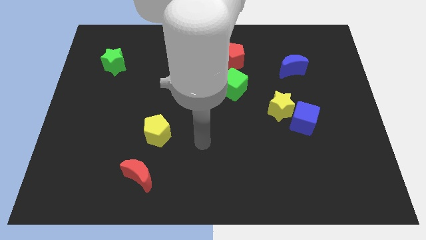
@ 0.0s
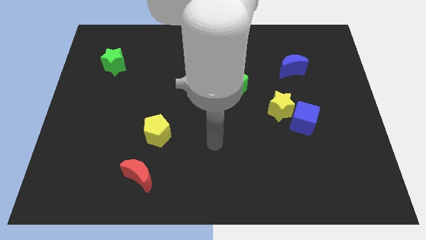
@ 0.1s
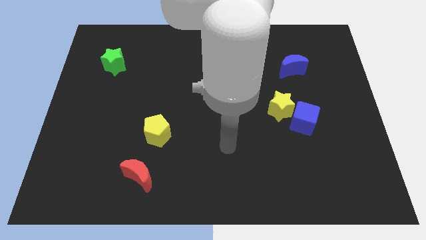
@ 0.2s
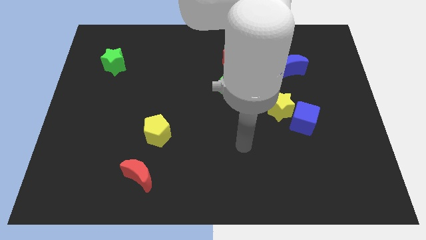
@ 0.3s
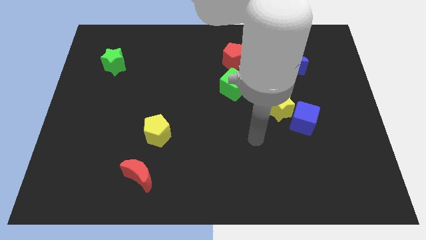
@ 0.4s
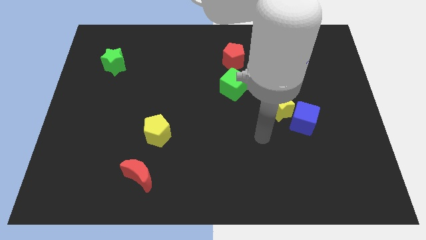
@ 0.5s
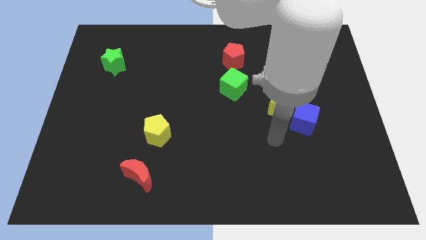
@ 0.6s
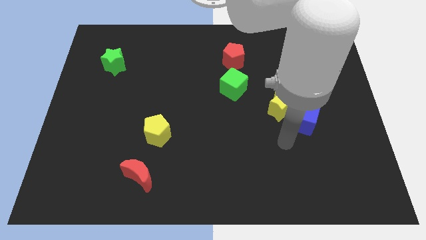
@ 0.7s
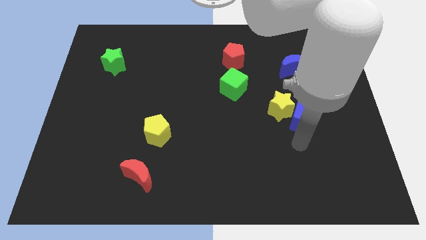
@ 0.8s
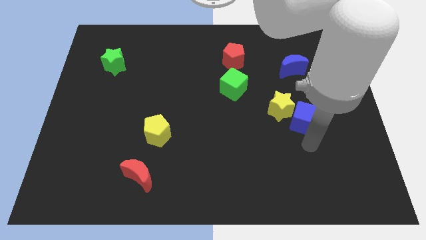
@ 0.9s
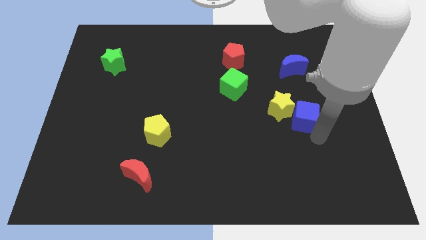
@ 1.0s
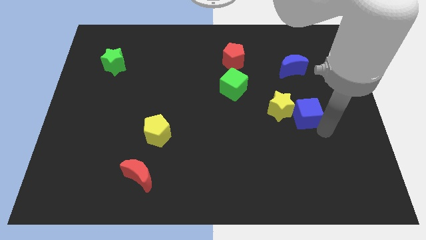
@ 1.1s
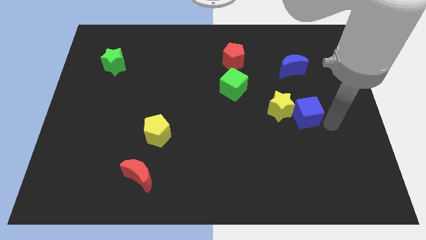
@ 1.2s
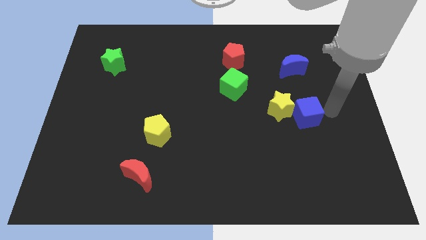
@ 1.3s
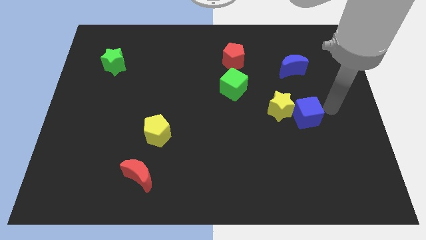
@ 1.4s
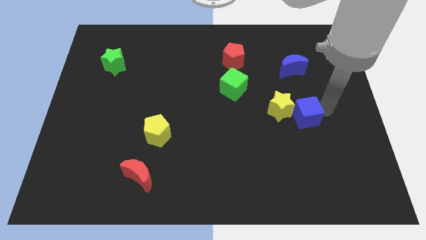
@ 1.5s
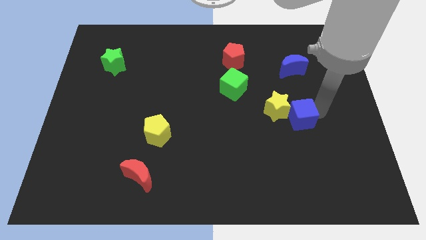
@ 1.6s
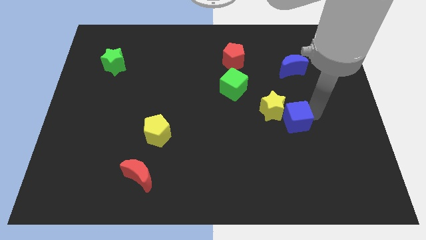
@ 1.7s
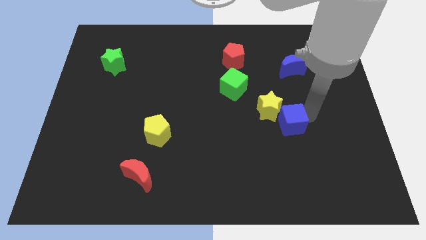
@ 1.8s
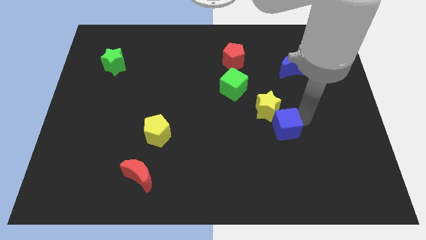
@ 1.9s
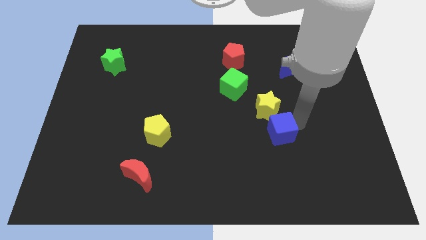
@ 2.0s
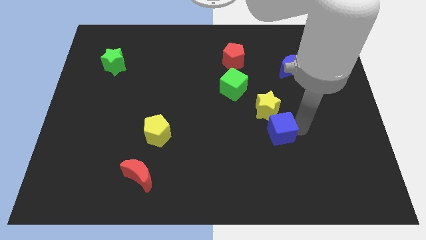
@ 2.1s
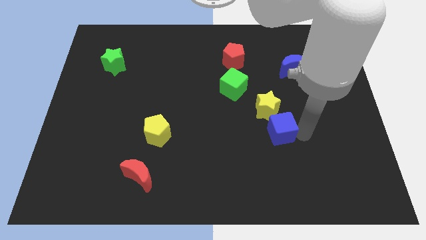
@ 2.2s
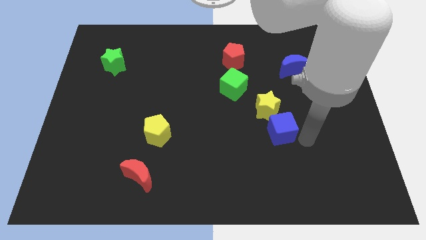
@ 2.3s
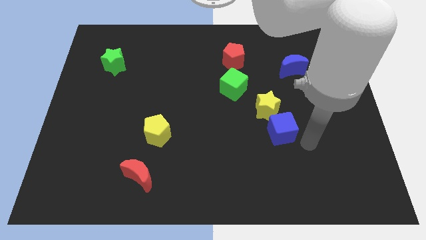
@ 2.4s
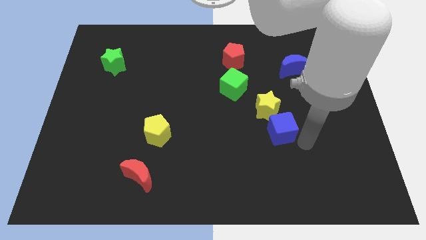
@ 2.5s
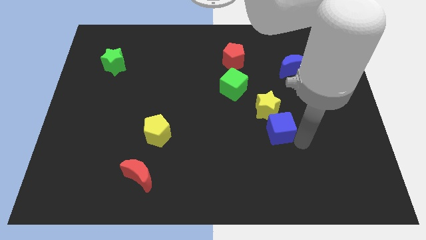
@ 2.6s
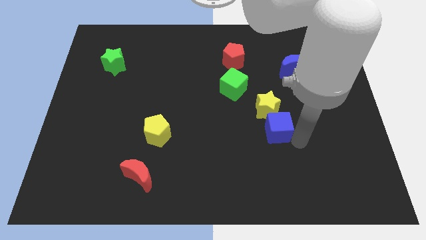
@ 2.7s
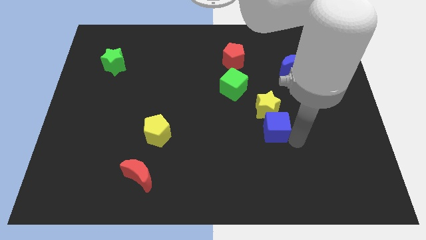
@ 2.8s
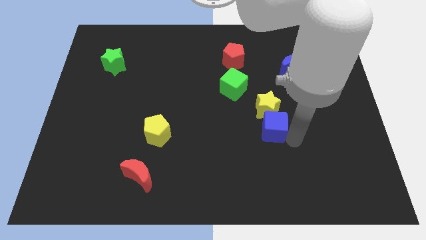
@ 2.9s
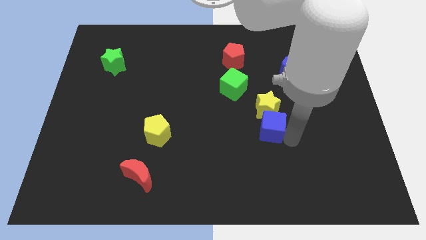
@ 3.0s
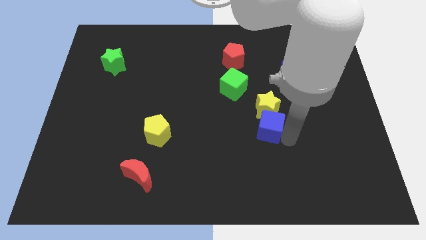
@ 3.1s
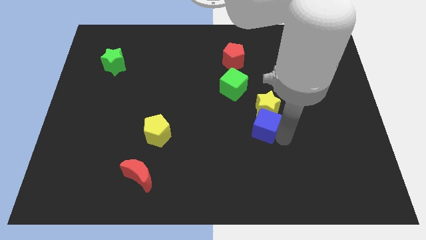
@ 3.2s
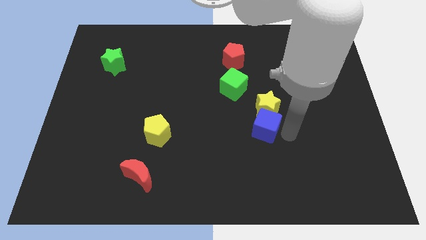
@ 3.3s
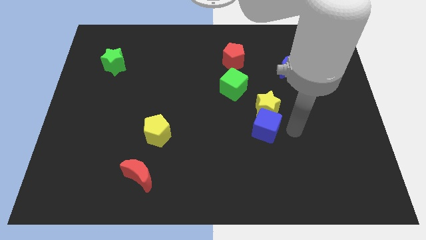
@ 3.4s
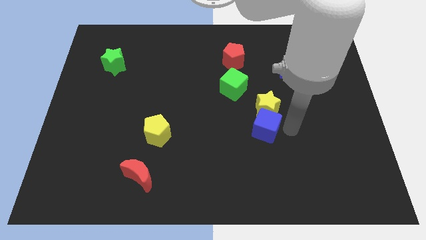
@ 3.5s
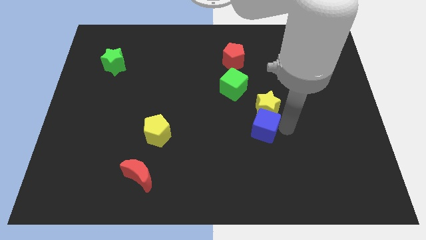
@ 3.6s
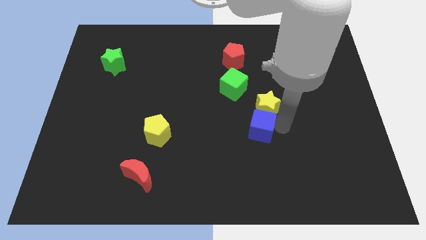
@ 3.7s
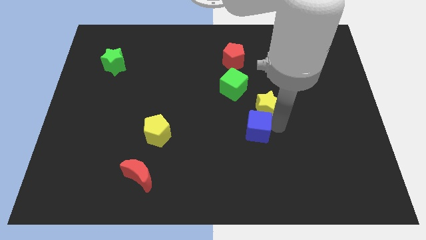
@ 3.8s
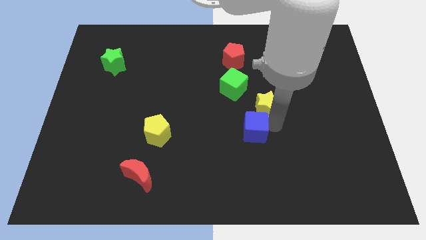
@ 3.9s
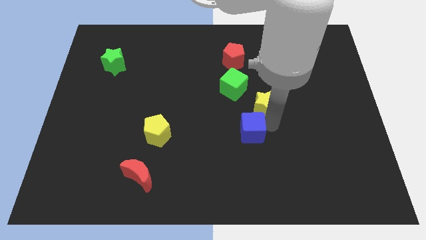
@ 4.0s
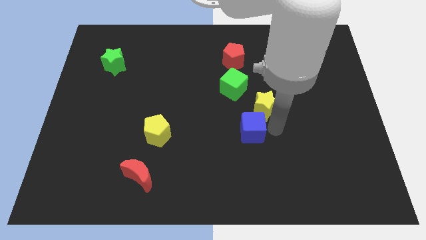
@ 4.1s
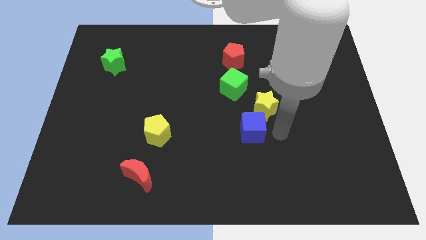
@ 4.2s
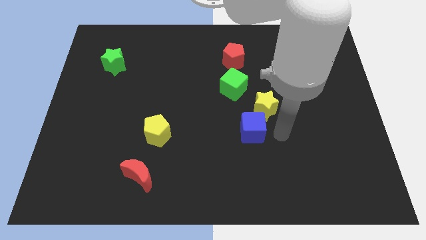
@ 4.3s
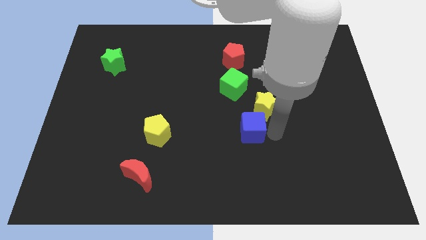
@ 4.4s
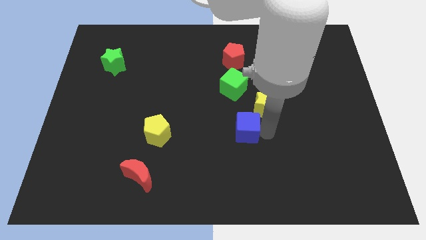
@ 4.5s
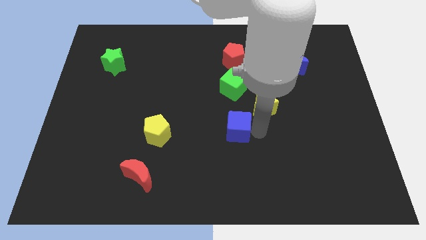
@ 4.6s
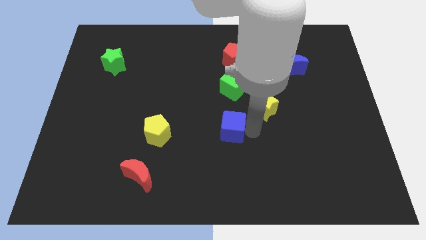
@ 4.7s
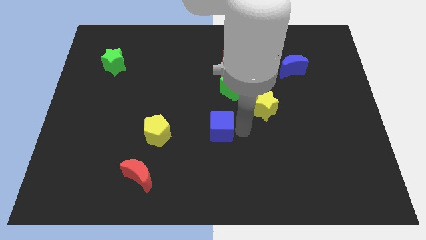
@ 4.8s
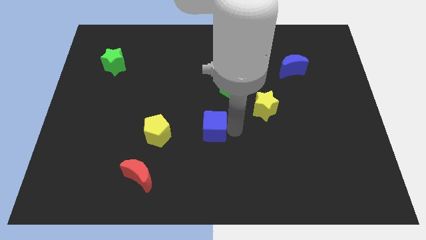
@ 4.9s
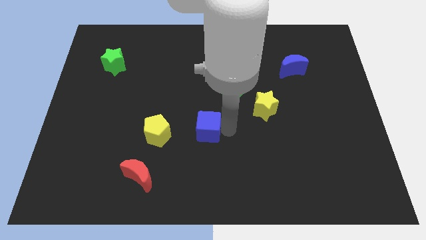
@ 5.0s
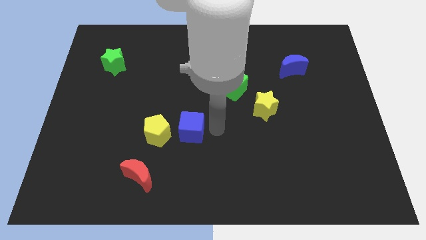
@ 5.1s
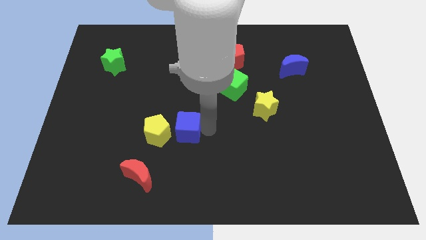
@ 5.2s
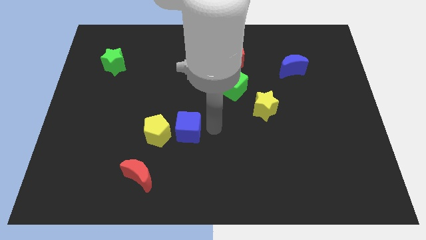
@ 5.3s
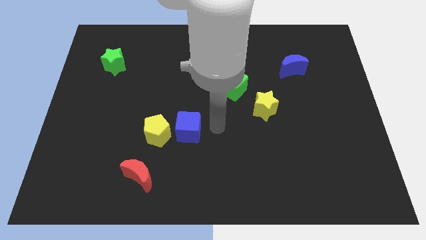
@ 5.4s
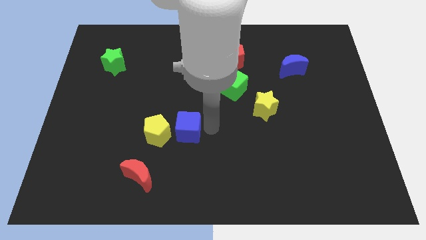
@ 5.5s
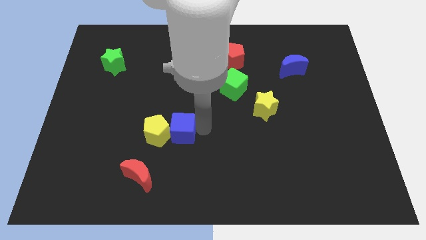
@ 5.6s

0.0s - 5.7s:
push the blue cube close to the yellow pentagon

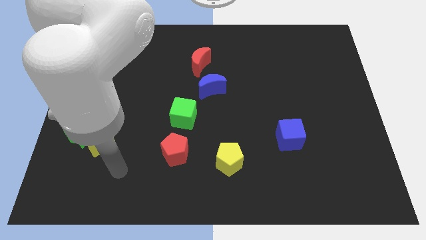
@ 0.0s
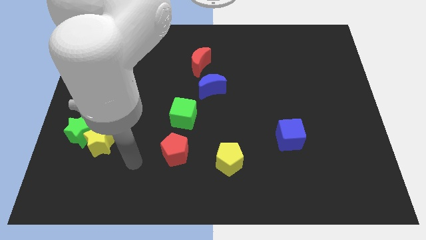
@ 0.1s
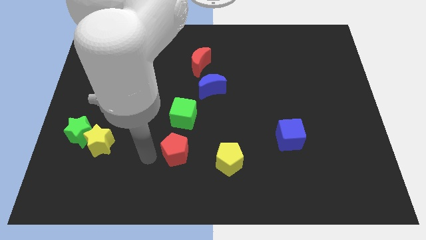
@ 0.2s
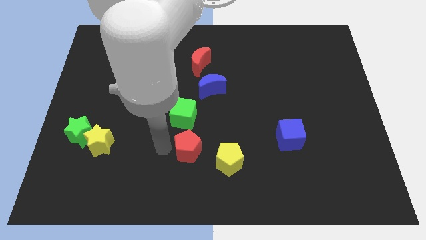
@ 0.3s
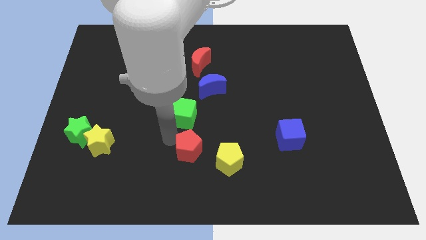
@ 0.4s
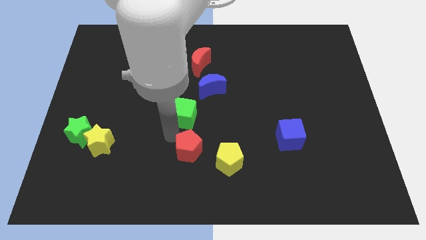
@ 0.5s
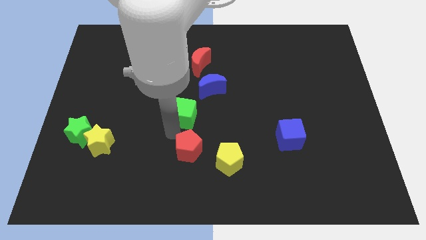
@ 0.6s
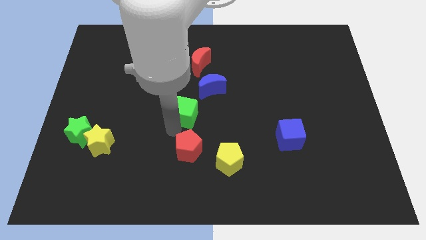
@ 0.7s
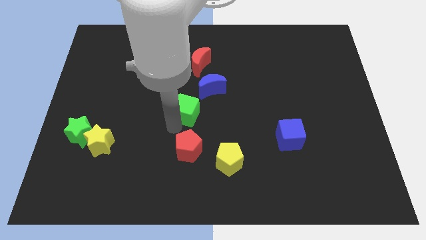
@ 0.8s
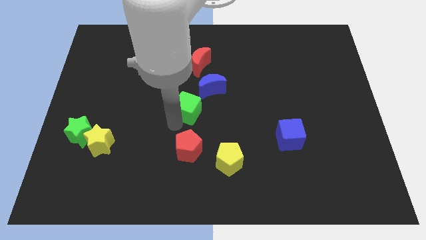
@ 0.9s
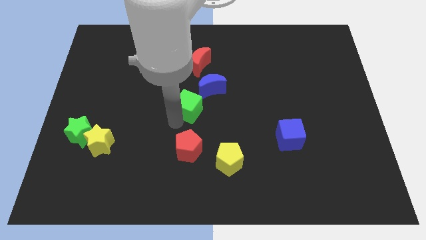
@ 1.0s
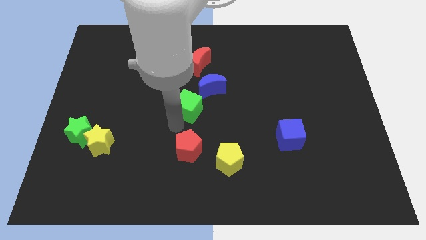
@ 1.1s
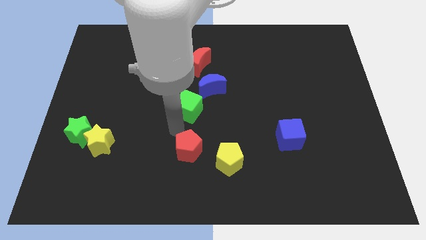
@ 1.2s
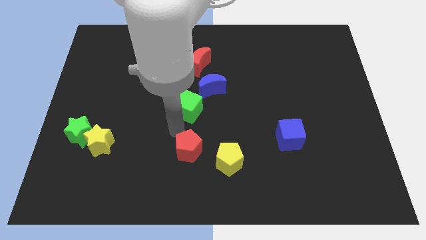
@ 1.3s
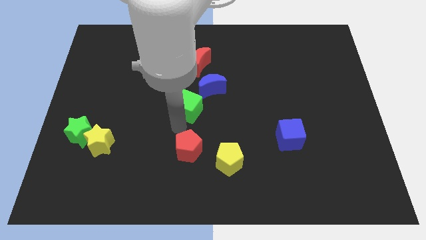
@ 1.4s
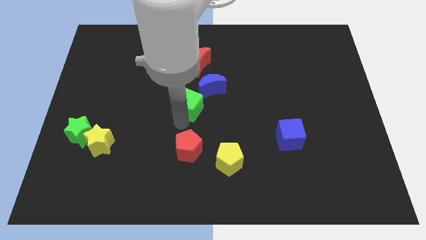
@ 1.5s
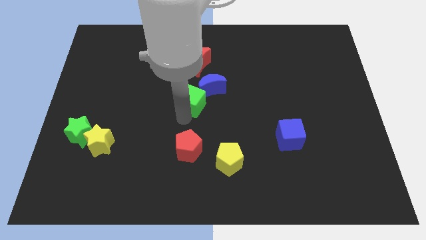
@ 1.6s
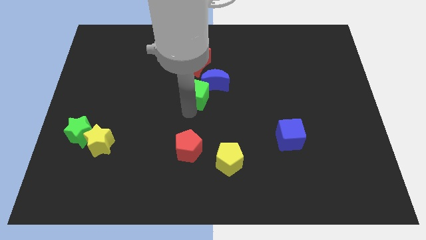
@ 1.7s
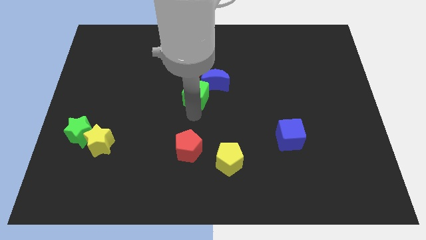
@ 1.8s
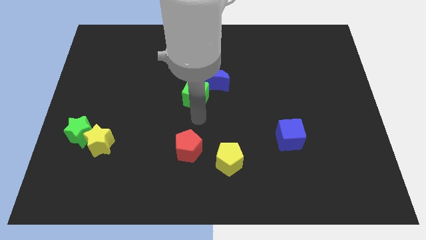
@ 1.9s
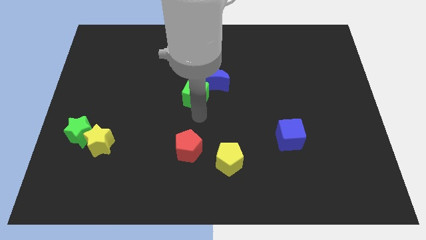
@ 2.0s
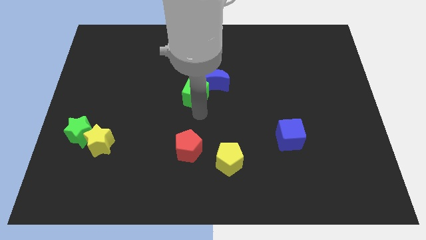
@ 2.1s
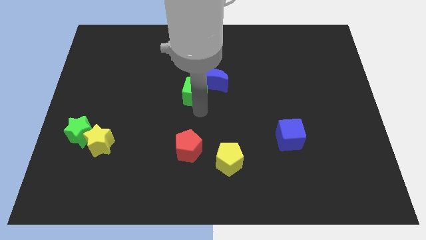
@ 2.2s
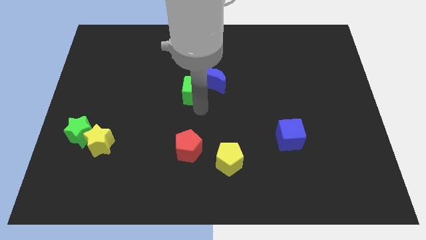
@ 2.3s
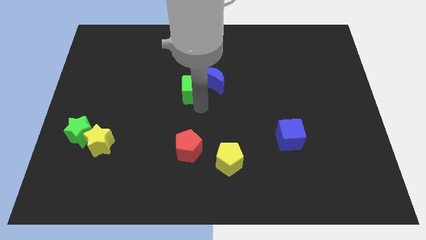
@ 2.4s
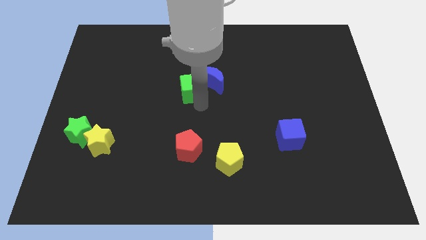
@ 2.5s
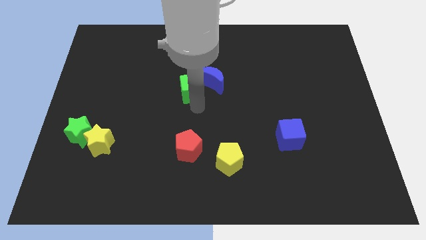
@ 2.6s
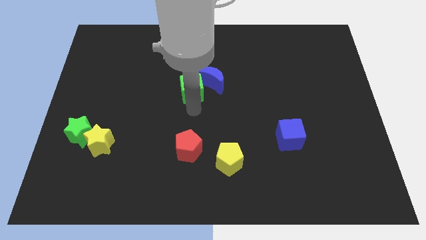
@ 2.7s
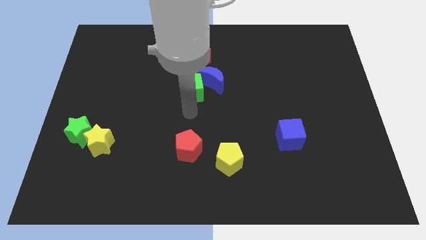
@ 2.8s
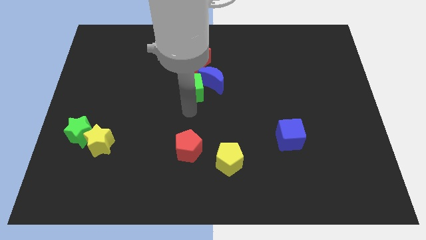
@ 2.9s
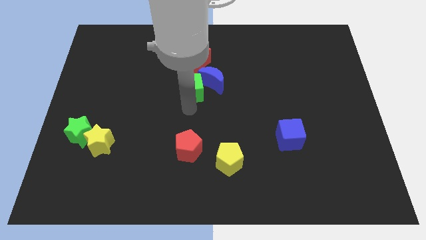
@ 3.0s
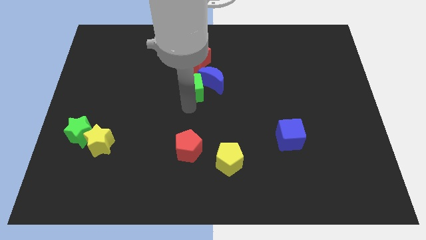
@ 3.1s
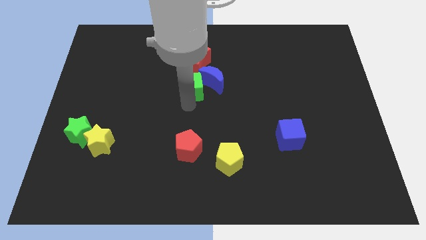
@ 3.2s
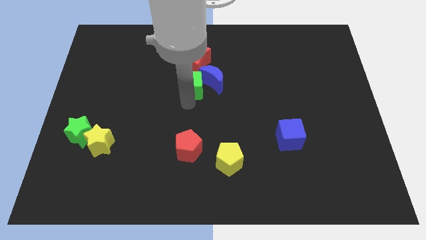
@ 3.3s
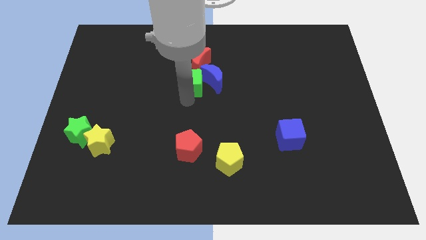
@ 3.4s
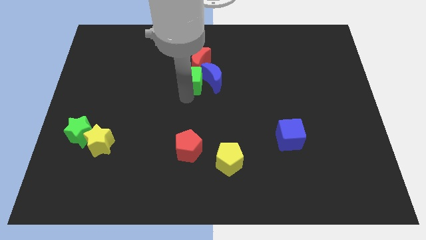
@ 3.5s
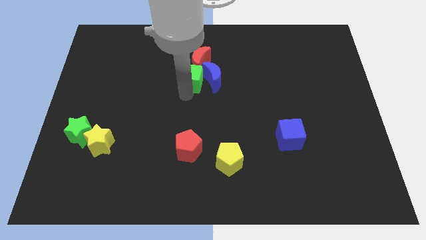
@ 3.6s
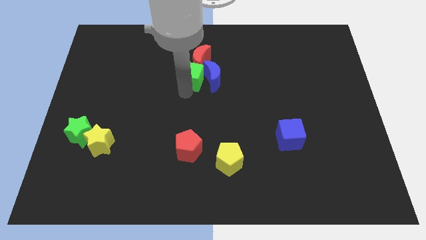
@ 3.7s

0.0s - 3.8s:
move the green cube to the red moon
